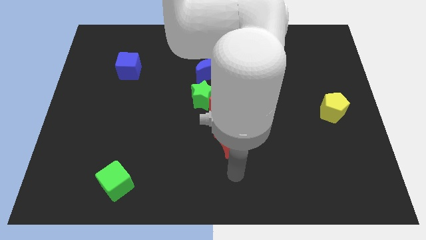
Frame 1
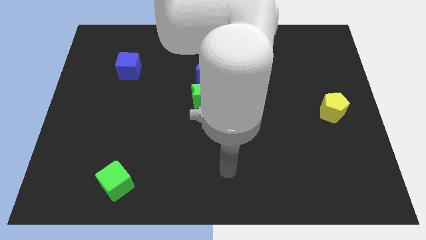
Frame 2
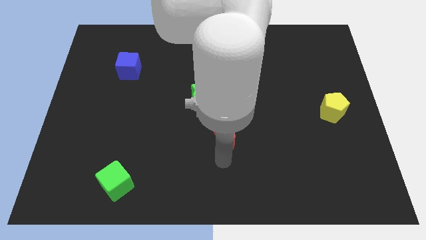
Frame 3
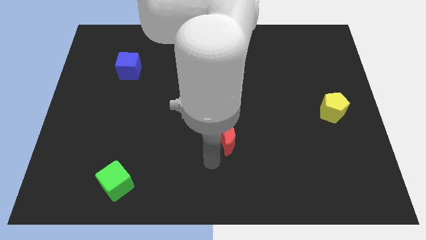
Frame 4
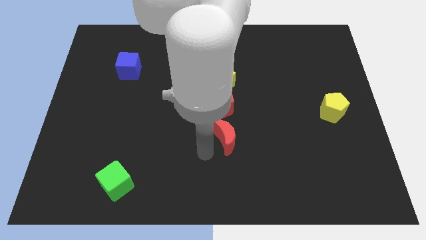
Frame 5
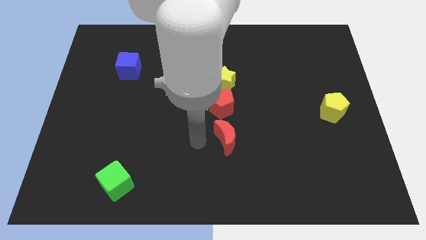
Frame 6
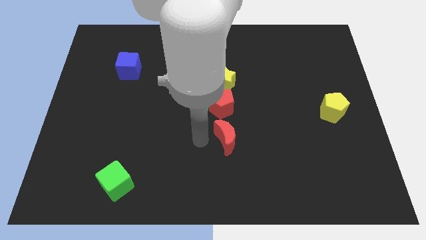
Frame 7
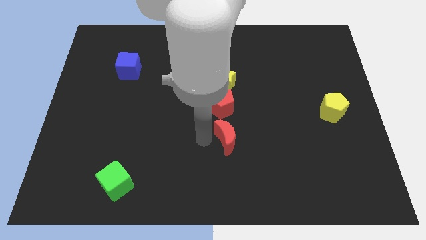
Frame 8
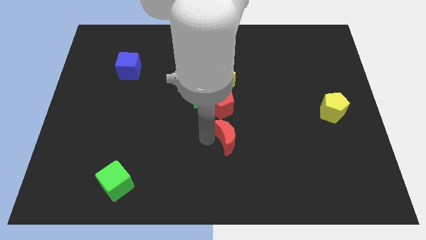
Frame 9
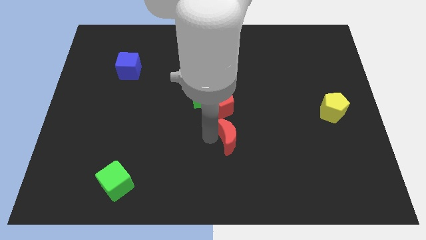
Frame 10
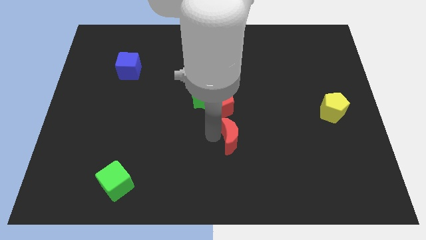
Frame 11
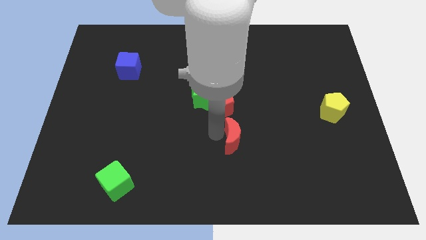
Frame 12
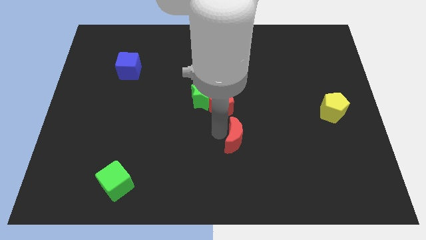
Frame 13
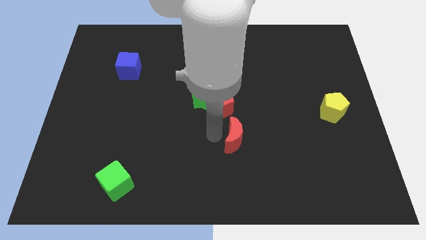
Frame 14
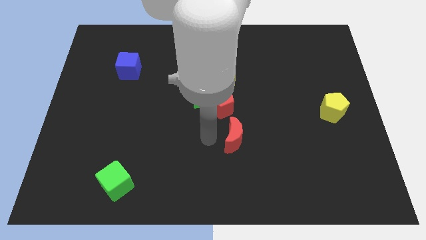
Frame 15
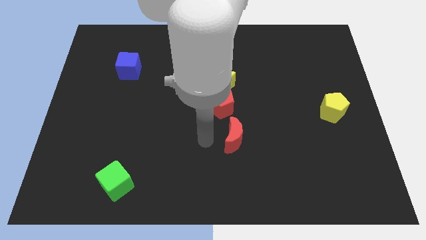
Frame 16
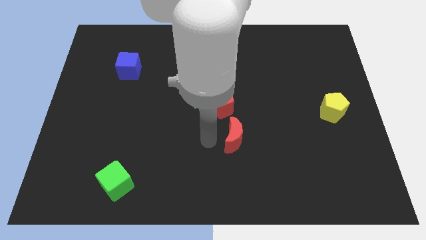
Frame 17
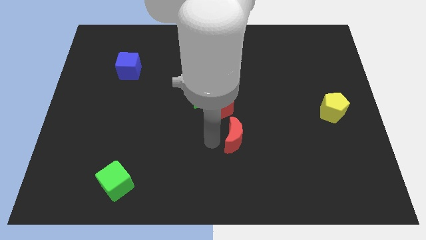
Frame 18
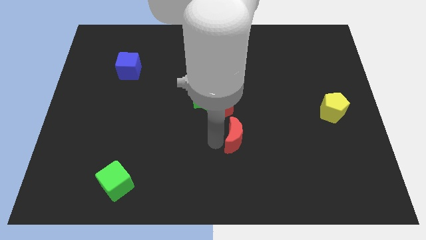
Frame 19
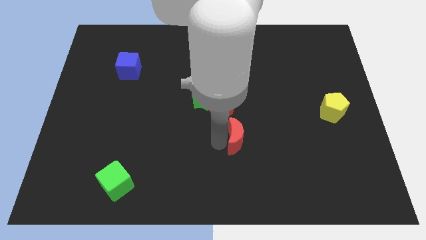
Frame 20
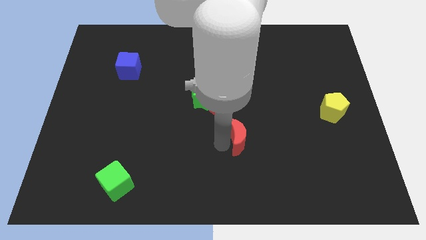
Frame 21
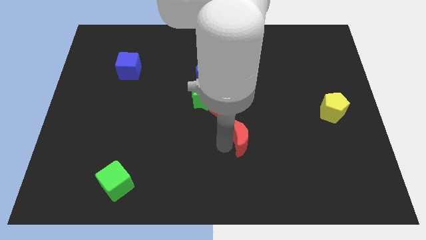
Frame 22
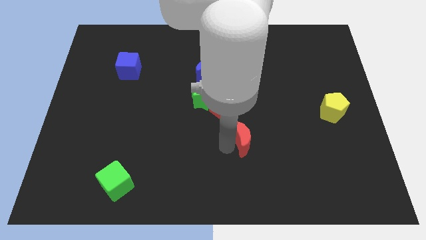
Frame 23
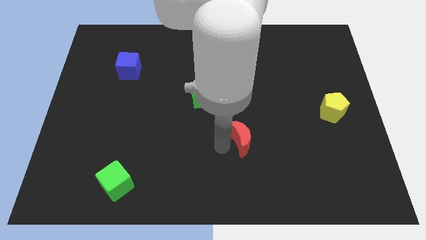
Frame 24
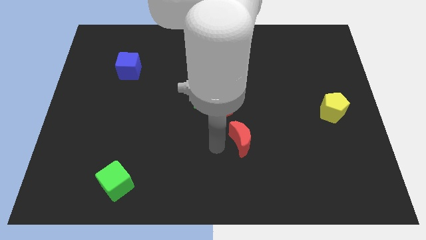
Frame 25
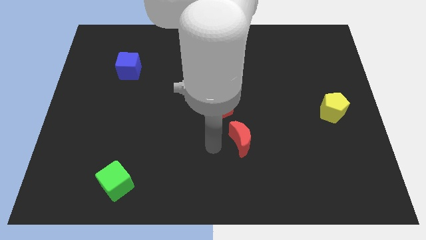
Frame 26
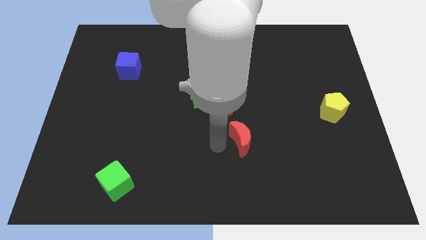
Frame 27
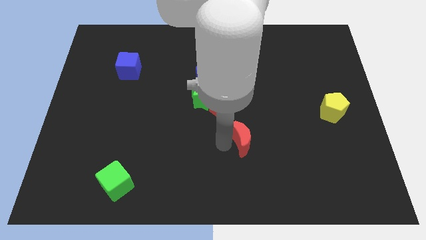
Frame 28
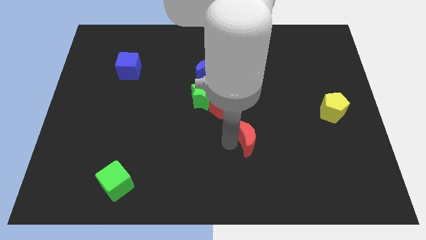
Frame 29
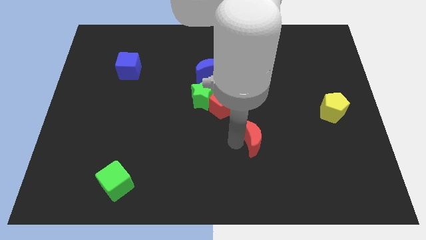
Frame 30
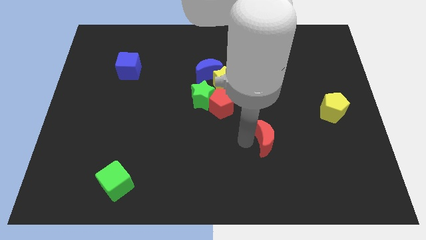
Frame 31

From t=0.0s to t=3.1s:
slightly slide the red moon to the right

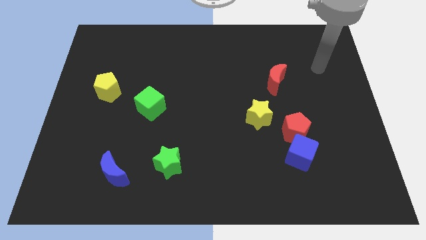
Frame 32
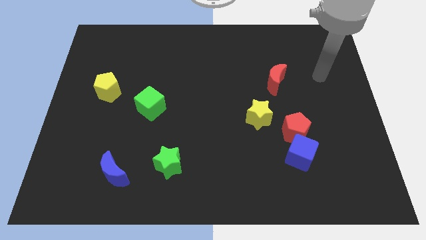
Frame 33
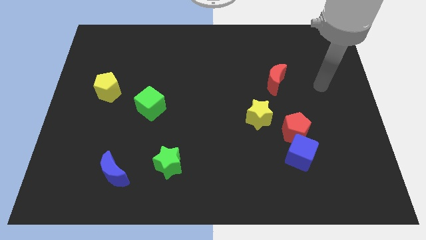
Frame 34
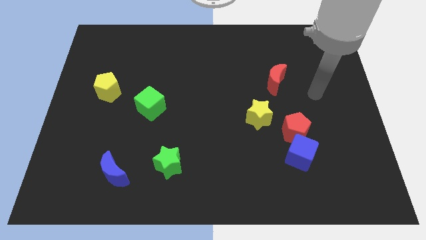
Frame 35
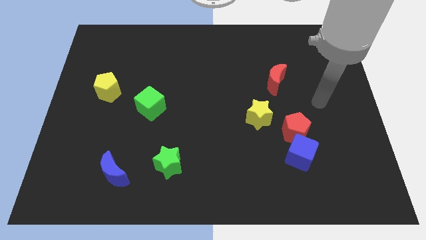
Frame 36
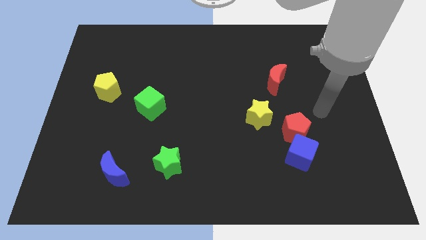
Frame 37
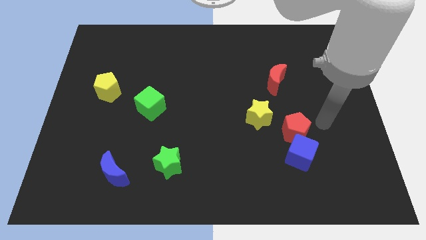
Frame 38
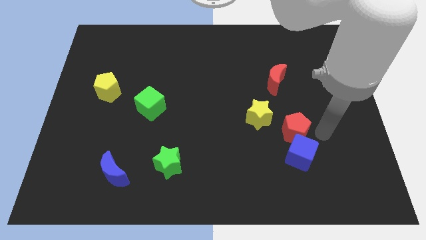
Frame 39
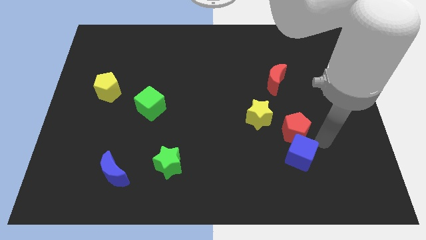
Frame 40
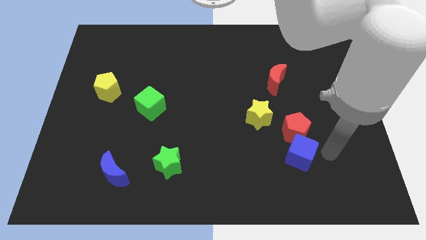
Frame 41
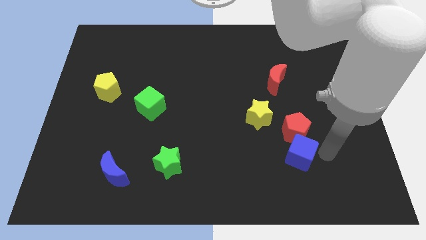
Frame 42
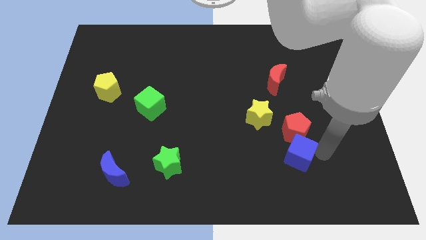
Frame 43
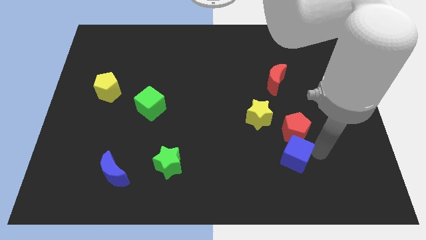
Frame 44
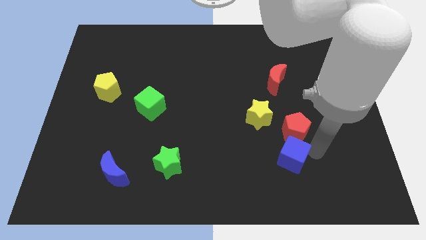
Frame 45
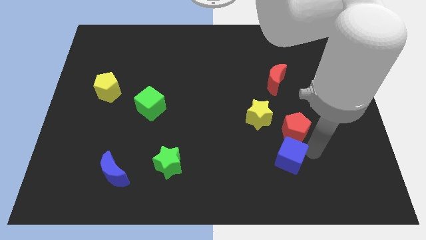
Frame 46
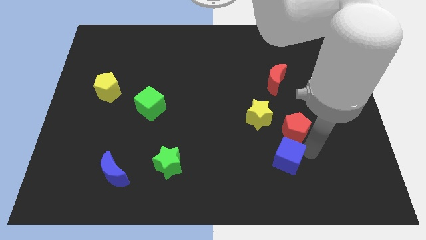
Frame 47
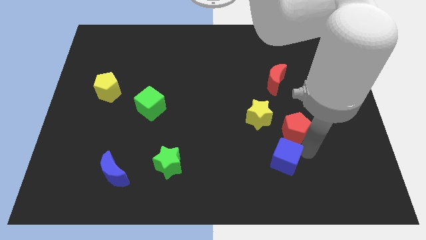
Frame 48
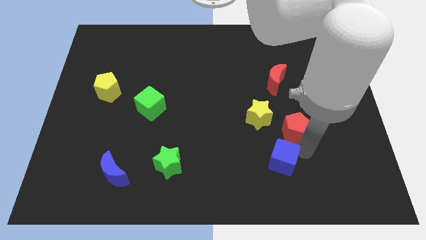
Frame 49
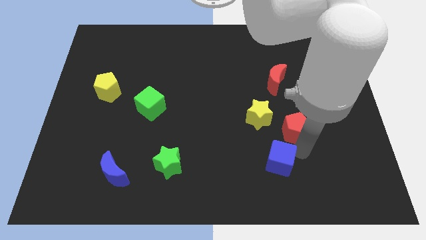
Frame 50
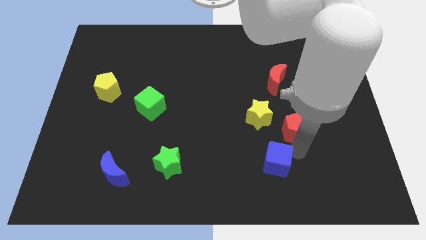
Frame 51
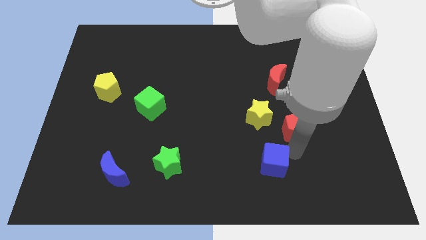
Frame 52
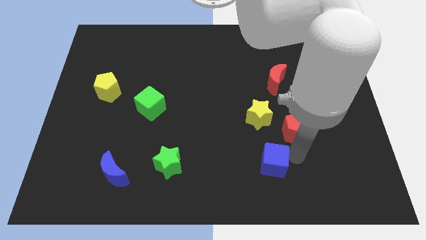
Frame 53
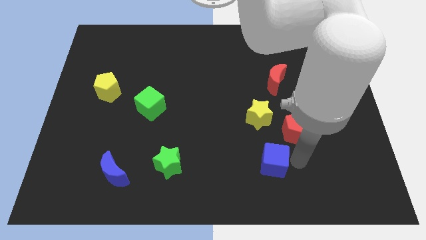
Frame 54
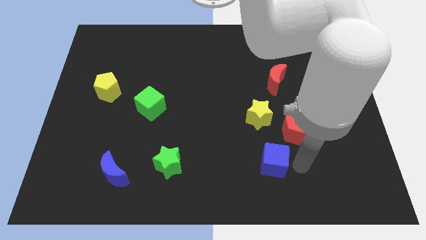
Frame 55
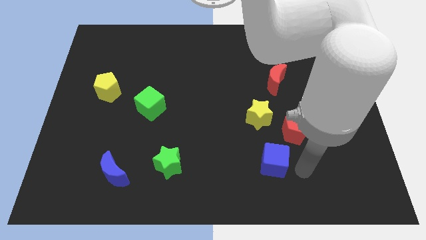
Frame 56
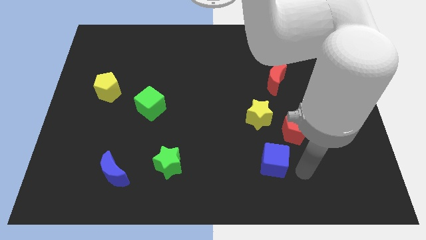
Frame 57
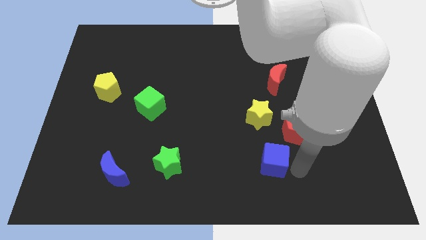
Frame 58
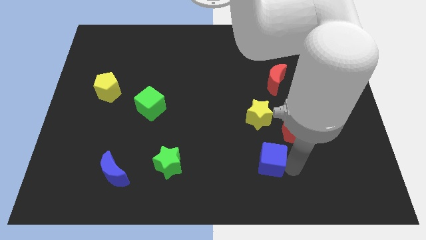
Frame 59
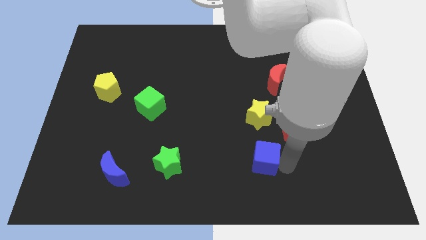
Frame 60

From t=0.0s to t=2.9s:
move the blue cube left somewhat

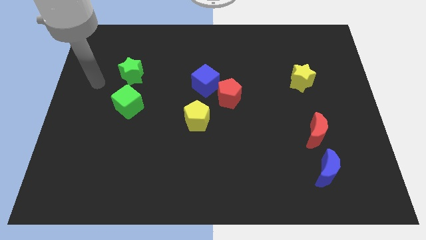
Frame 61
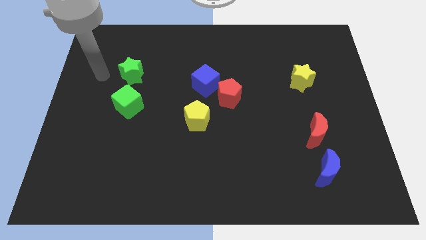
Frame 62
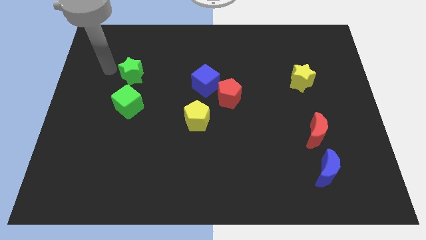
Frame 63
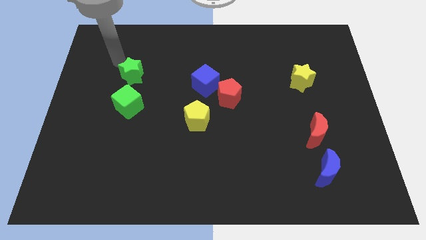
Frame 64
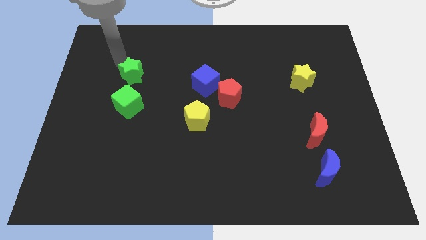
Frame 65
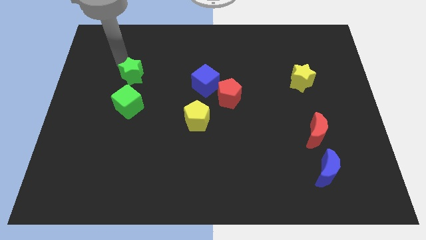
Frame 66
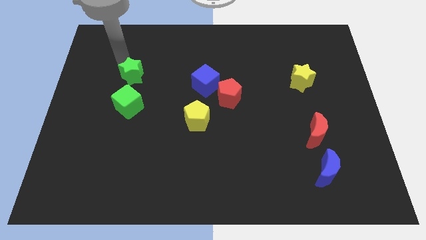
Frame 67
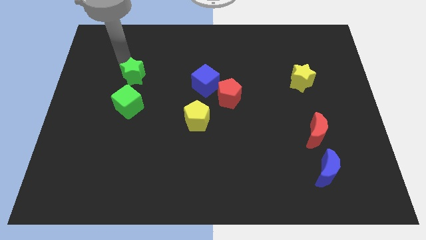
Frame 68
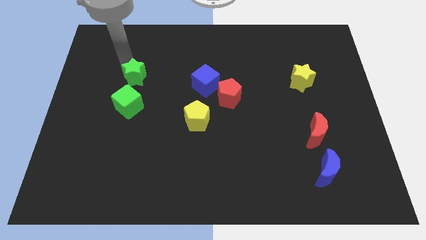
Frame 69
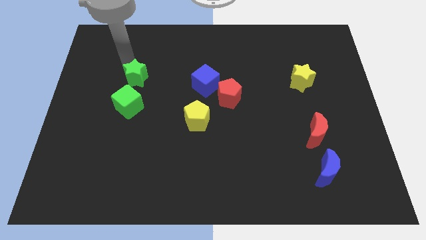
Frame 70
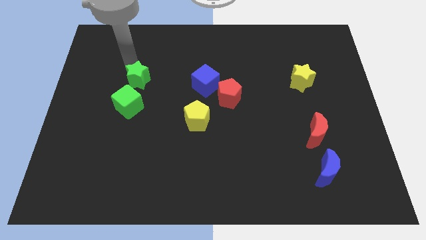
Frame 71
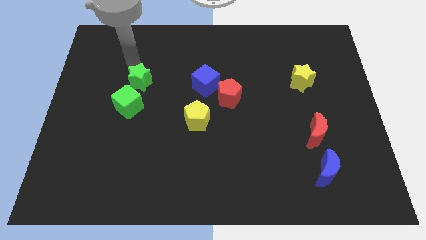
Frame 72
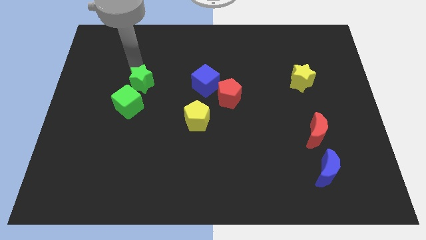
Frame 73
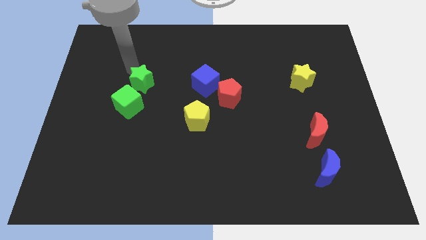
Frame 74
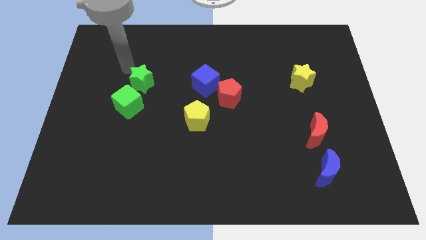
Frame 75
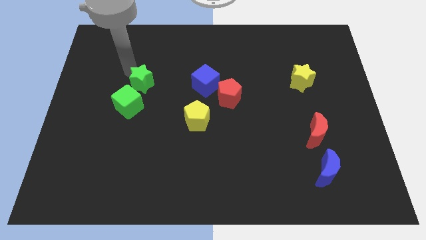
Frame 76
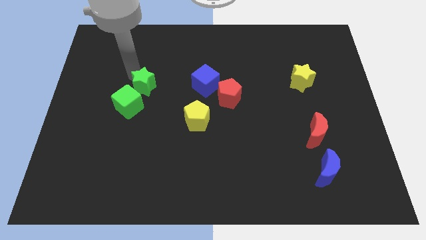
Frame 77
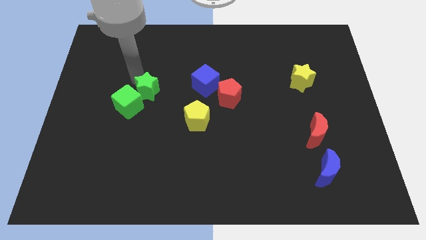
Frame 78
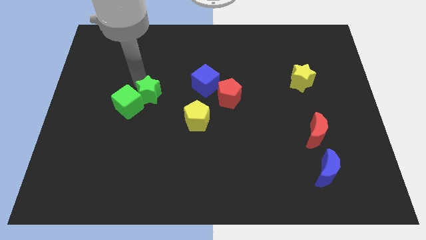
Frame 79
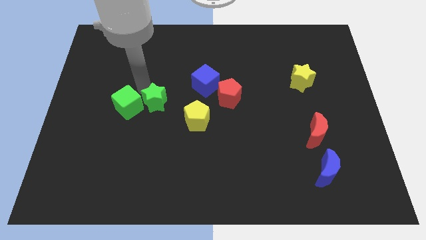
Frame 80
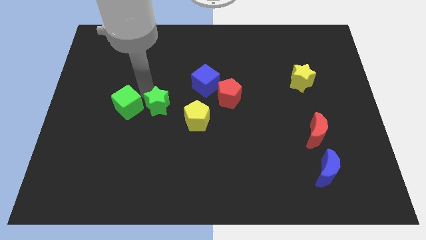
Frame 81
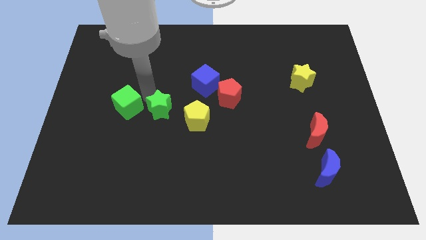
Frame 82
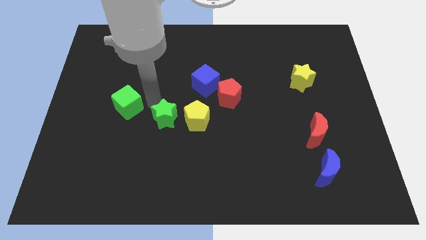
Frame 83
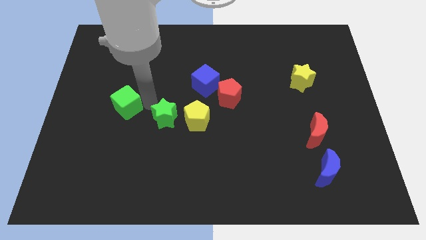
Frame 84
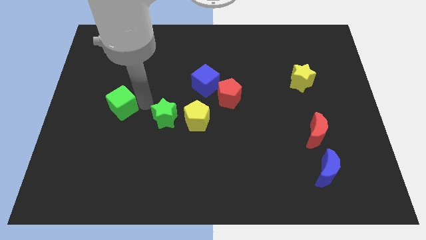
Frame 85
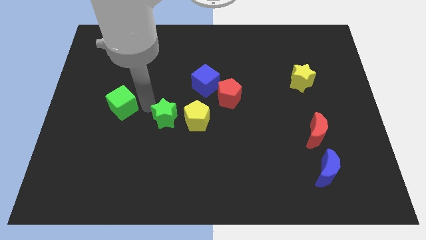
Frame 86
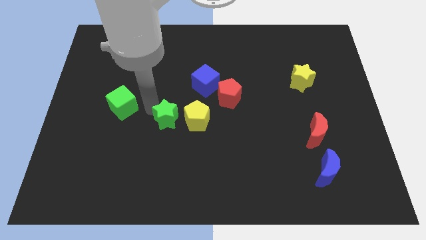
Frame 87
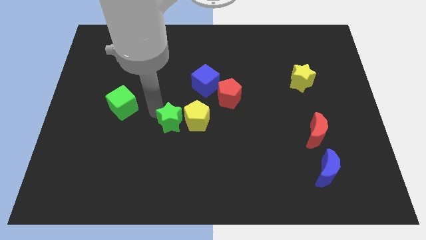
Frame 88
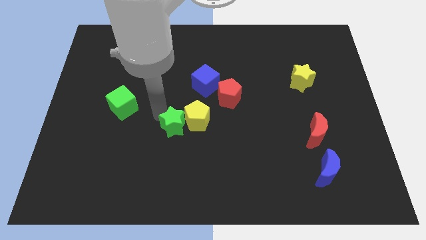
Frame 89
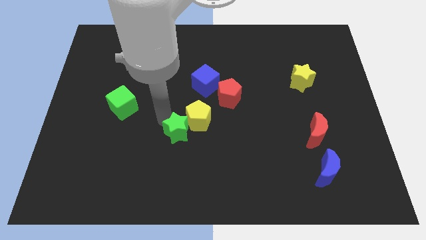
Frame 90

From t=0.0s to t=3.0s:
push the green star down and right diagonally
